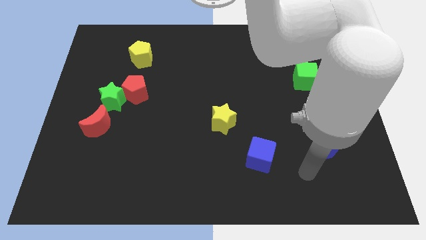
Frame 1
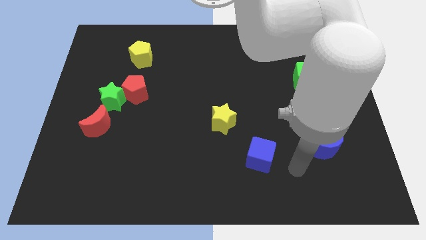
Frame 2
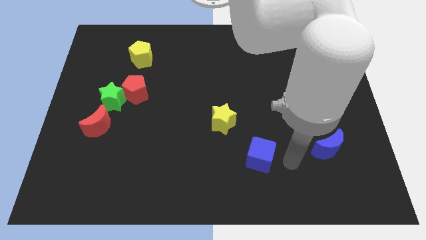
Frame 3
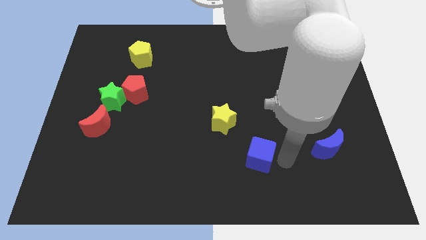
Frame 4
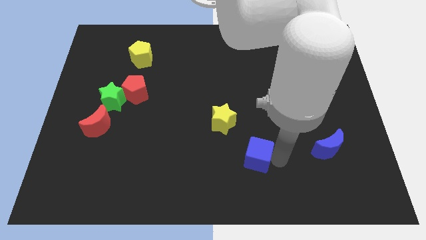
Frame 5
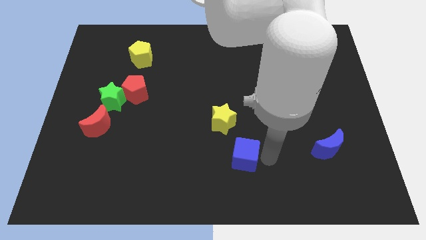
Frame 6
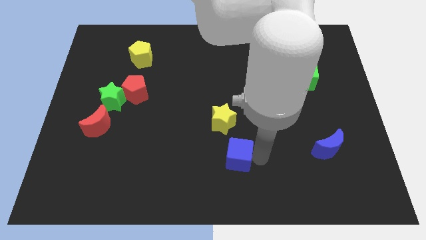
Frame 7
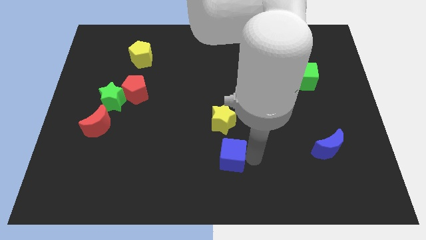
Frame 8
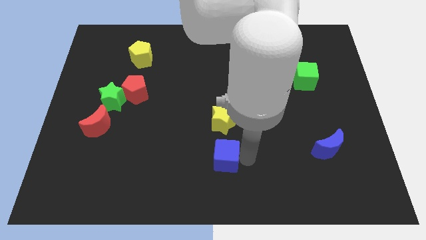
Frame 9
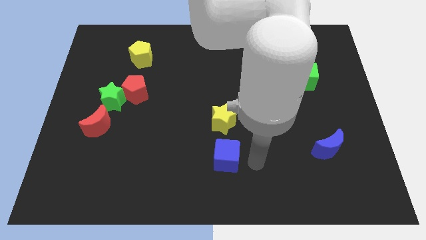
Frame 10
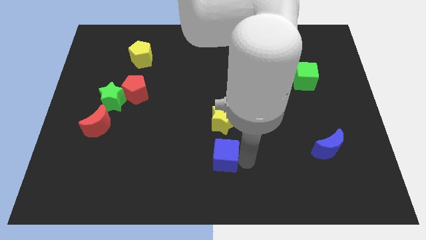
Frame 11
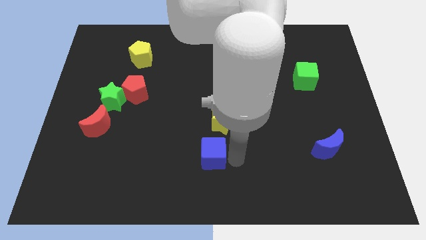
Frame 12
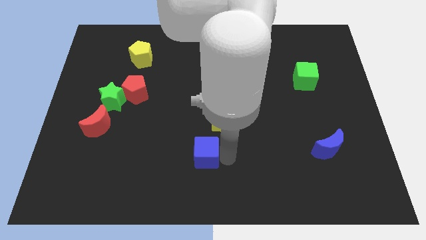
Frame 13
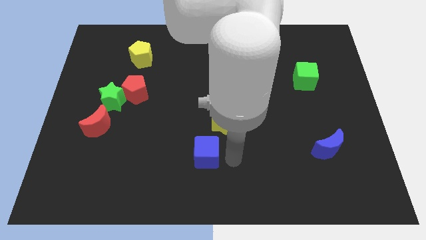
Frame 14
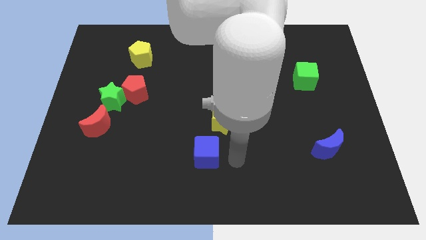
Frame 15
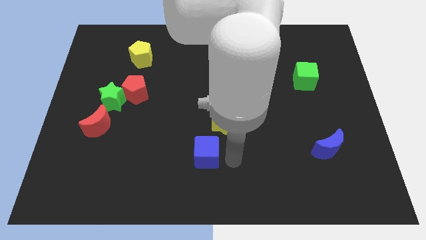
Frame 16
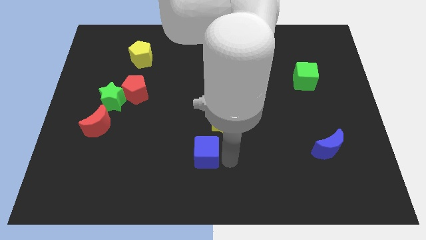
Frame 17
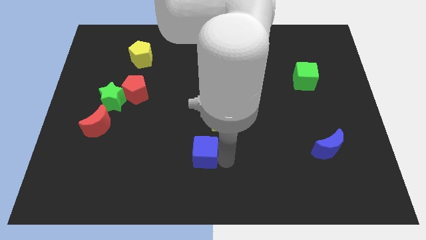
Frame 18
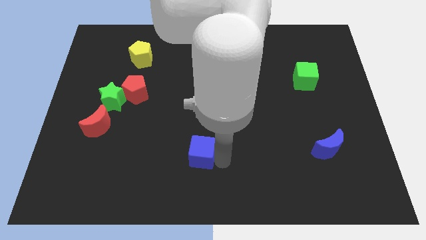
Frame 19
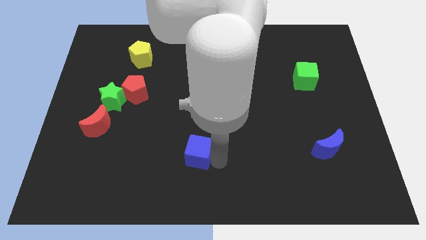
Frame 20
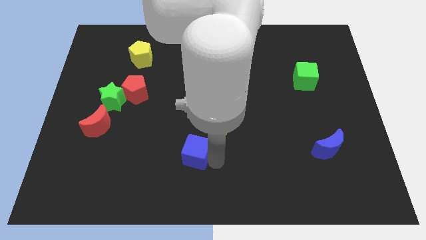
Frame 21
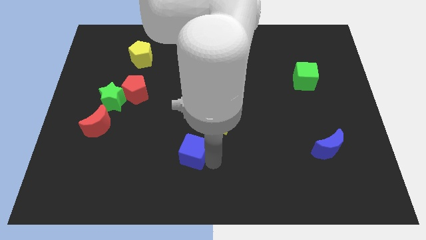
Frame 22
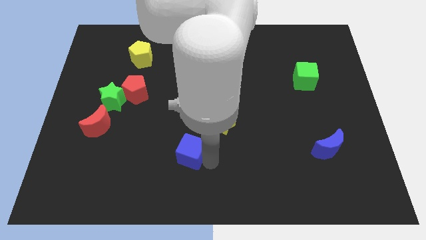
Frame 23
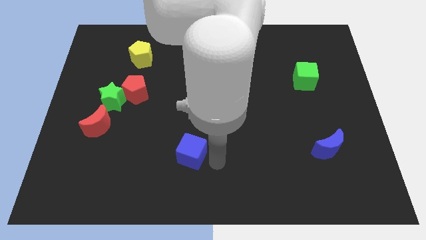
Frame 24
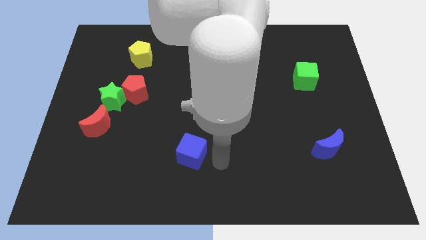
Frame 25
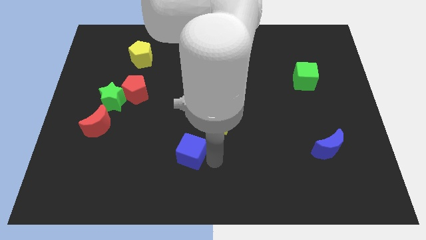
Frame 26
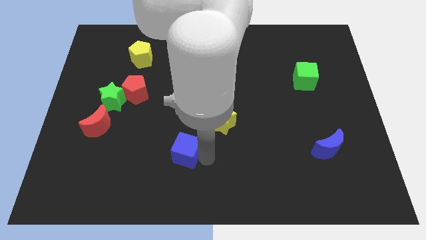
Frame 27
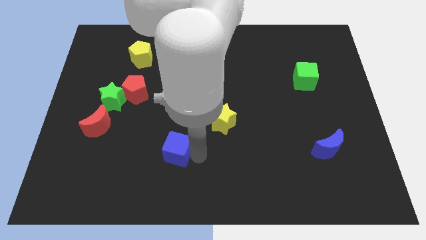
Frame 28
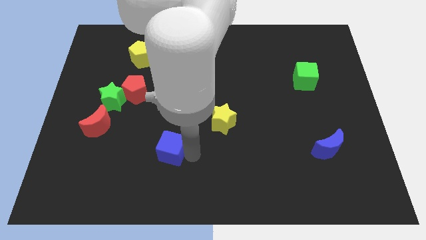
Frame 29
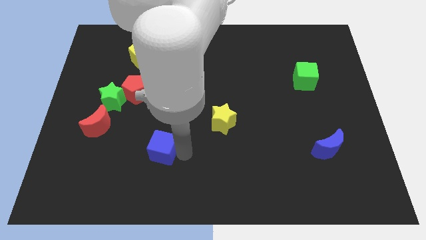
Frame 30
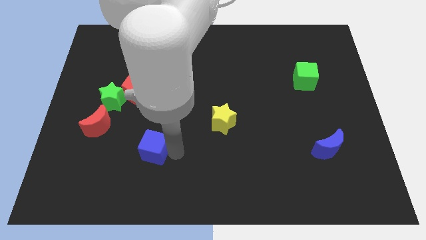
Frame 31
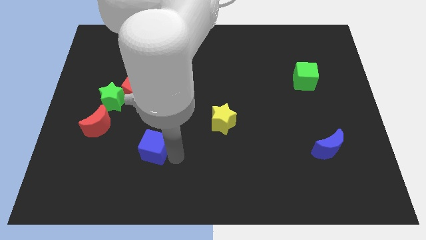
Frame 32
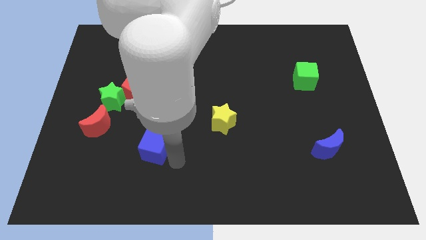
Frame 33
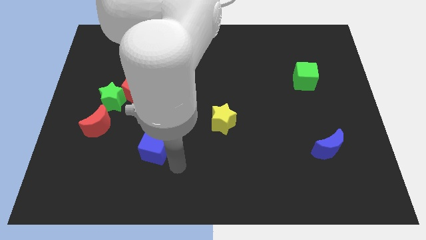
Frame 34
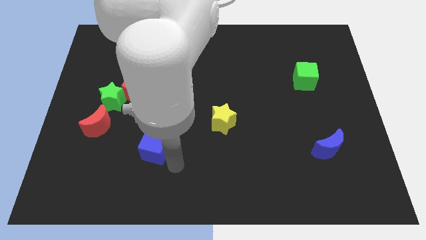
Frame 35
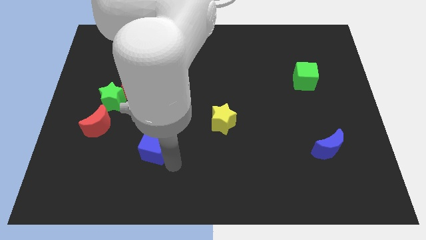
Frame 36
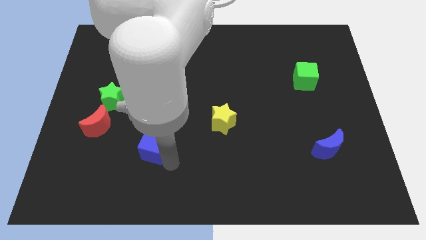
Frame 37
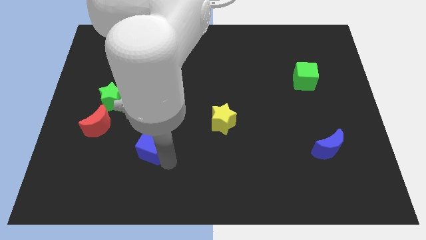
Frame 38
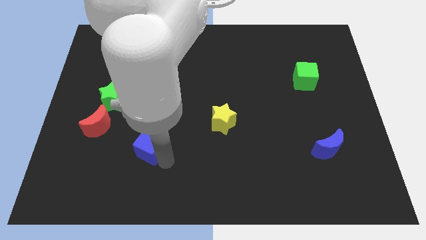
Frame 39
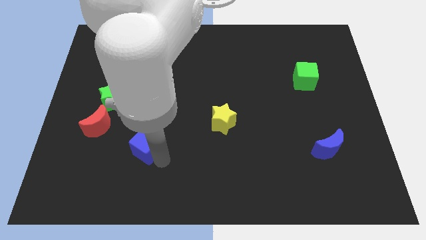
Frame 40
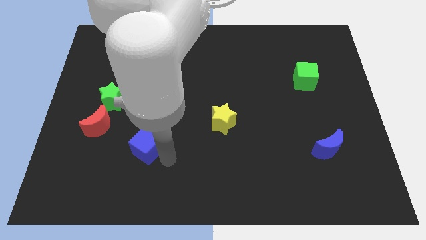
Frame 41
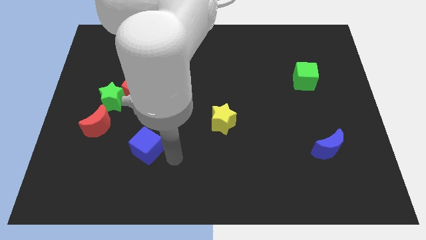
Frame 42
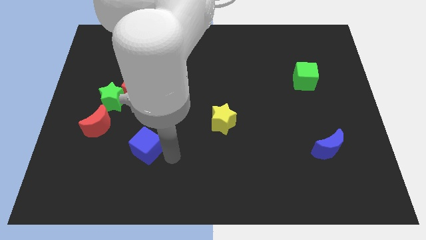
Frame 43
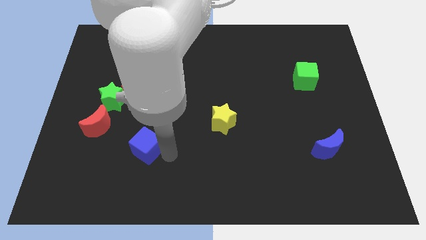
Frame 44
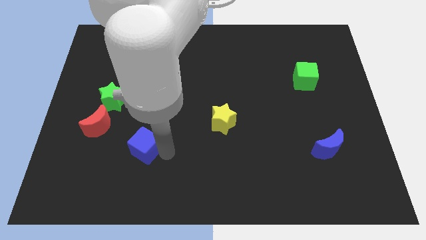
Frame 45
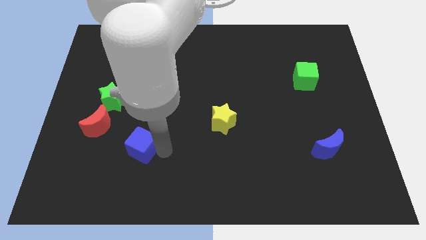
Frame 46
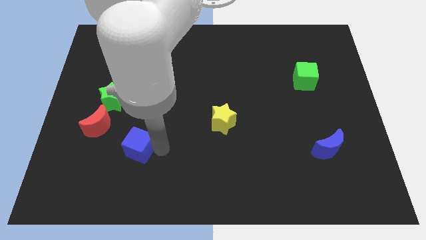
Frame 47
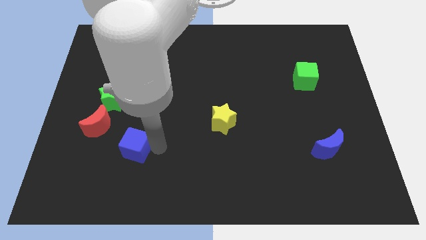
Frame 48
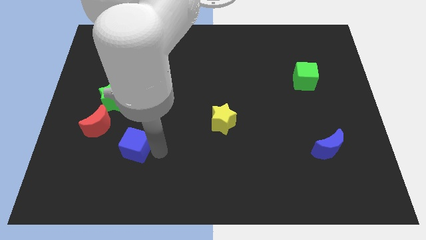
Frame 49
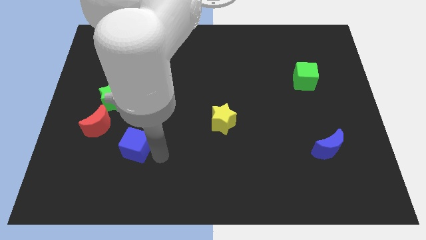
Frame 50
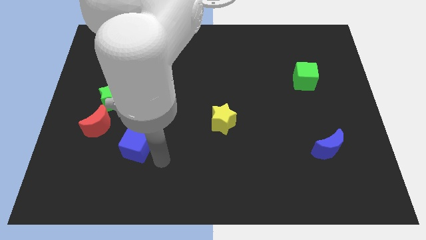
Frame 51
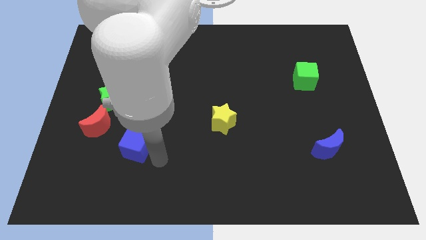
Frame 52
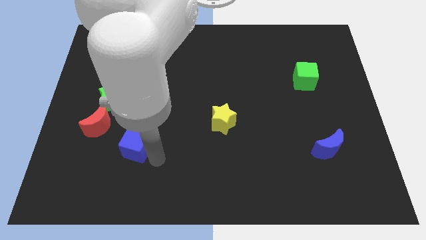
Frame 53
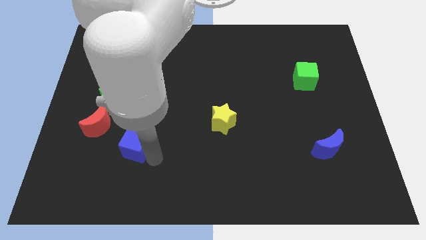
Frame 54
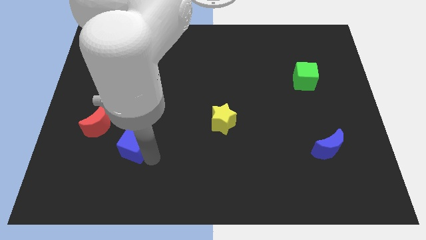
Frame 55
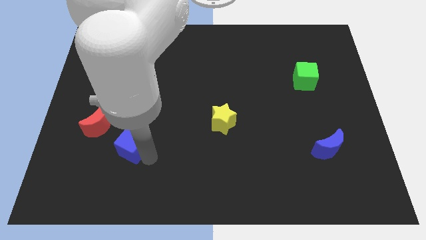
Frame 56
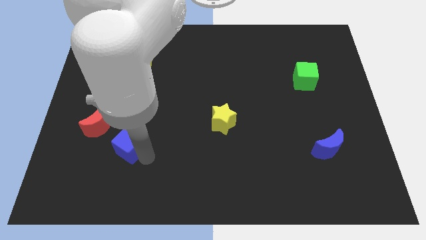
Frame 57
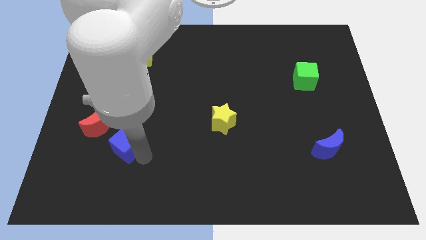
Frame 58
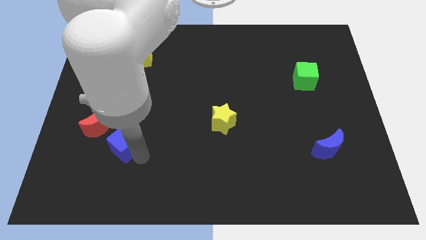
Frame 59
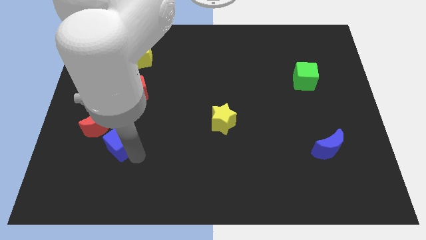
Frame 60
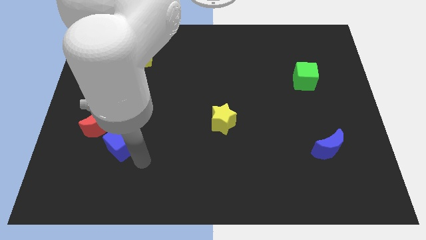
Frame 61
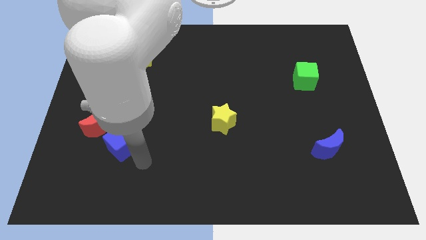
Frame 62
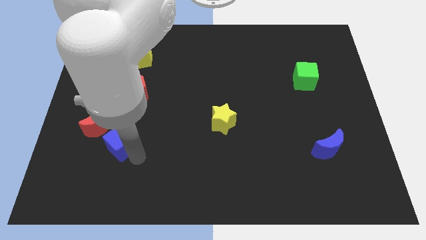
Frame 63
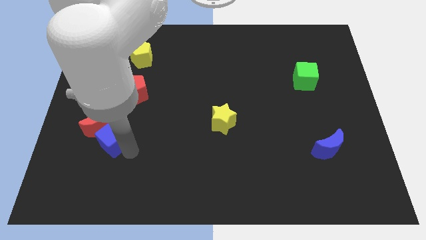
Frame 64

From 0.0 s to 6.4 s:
put the blue cube next to the red moon

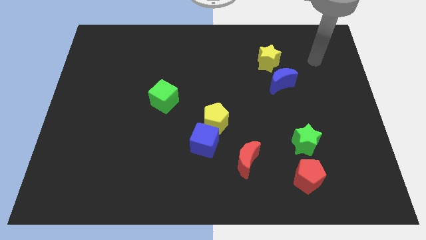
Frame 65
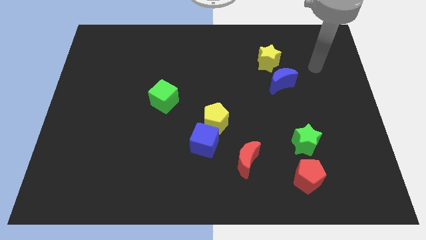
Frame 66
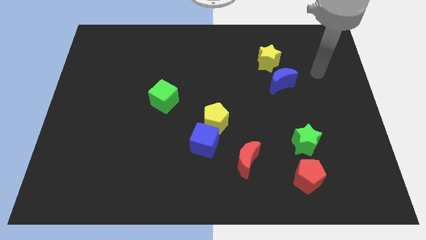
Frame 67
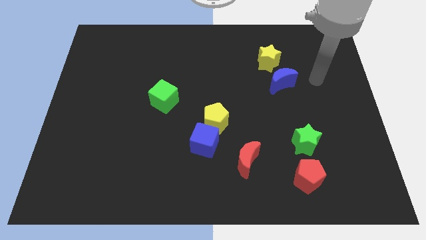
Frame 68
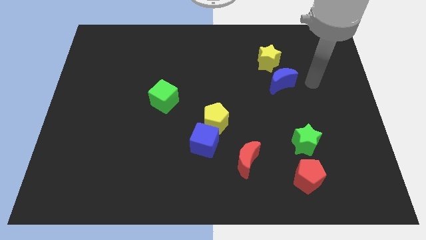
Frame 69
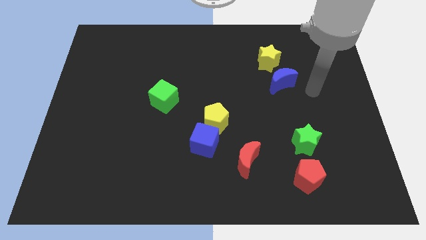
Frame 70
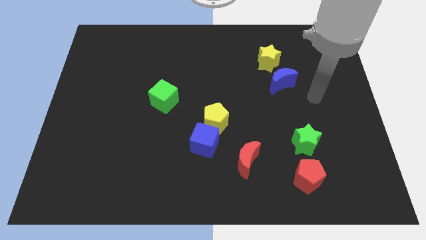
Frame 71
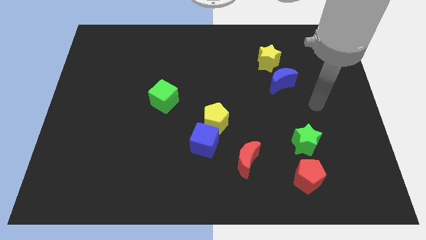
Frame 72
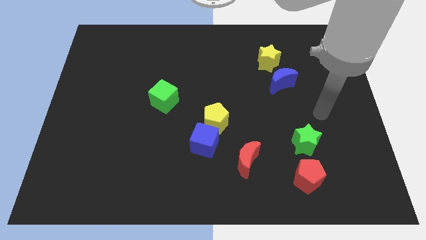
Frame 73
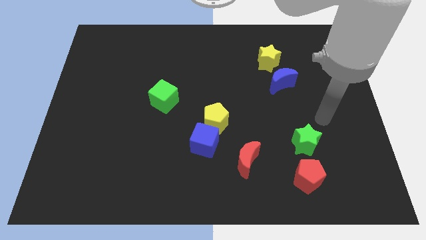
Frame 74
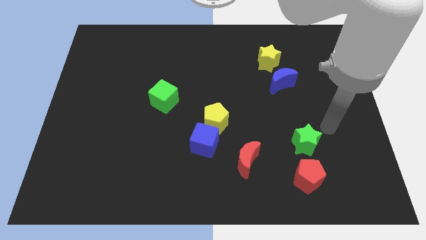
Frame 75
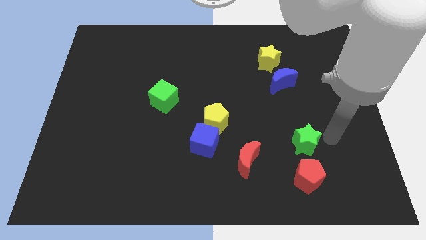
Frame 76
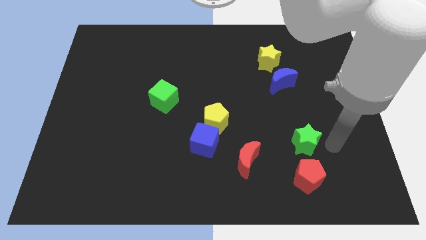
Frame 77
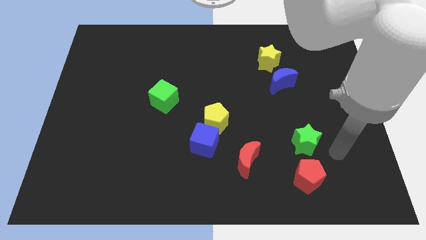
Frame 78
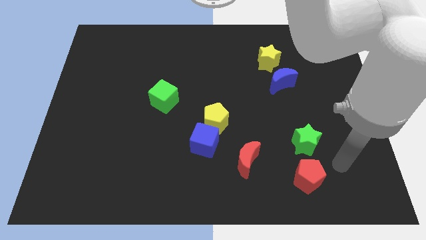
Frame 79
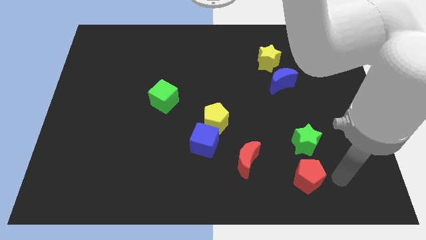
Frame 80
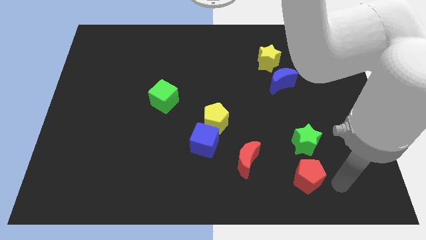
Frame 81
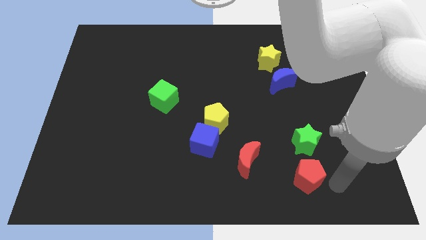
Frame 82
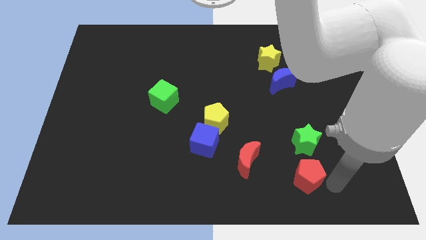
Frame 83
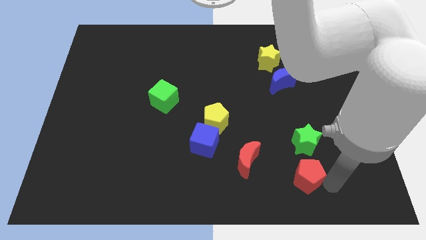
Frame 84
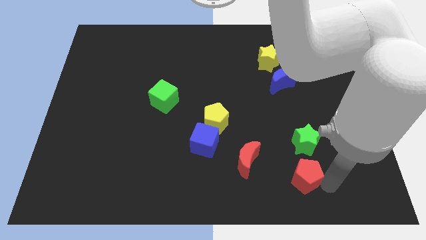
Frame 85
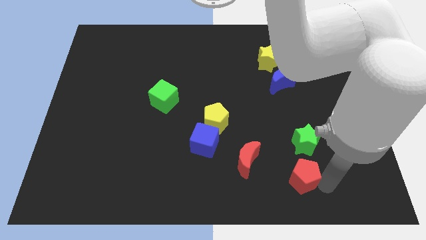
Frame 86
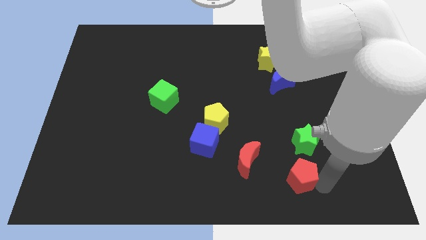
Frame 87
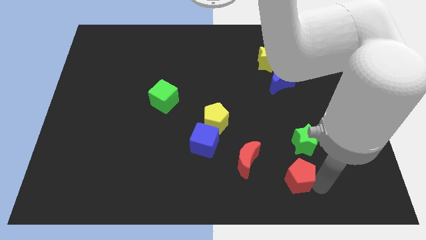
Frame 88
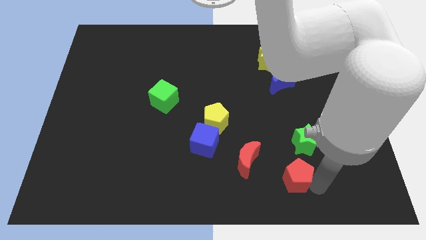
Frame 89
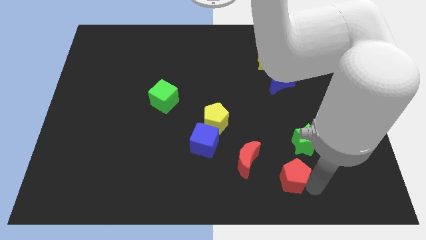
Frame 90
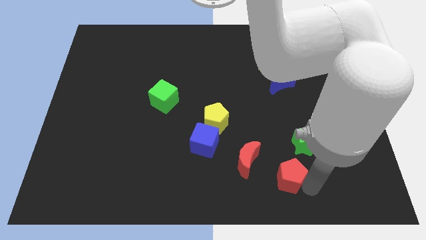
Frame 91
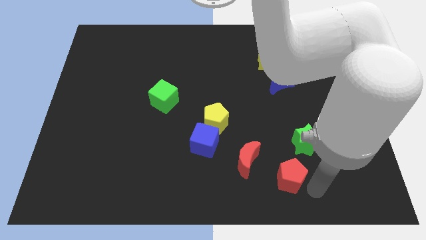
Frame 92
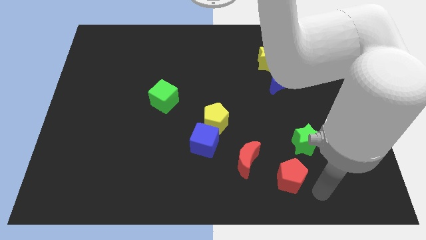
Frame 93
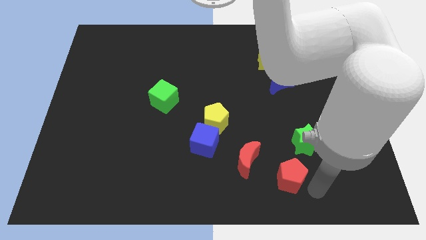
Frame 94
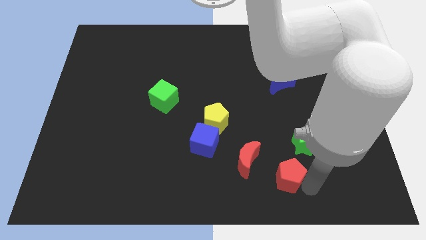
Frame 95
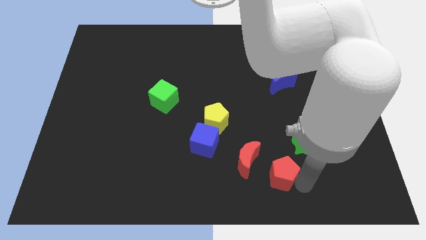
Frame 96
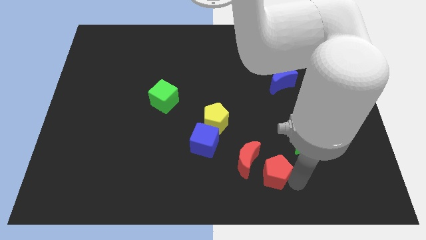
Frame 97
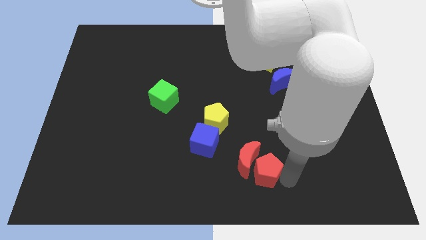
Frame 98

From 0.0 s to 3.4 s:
slide the red pentagon next to the red moon
